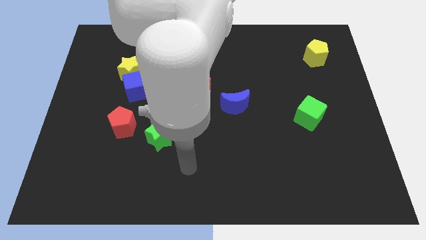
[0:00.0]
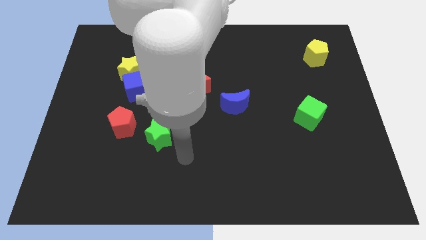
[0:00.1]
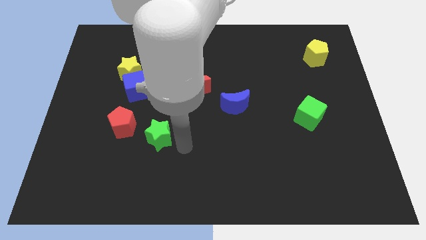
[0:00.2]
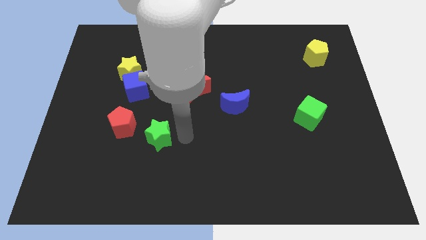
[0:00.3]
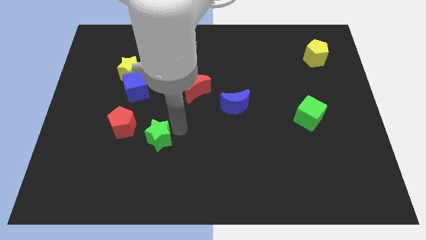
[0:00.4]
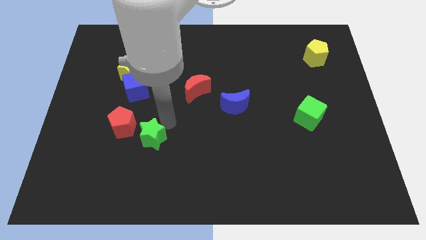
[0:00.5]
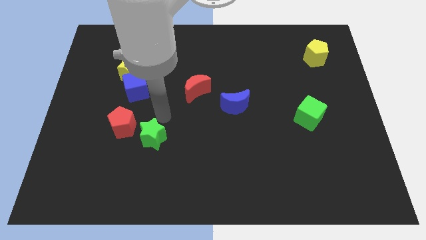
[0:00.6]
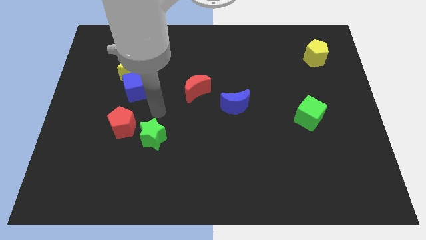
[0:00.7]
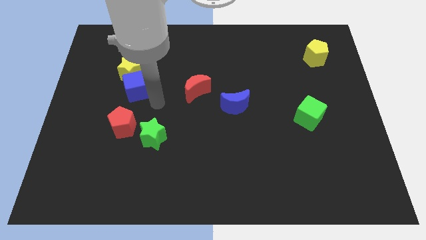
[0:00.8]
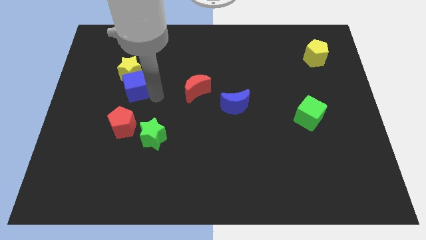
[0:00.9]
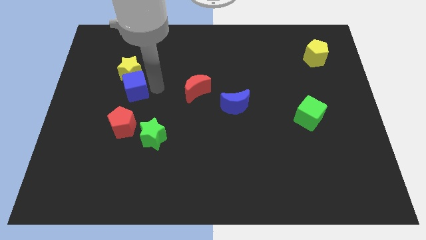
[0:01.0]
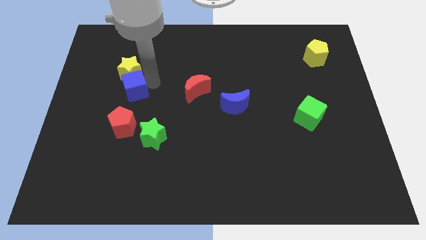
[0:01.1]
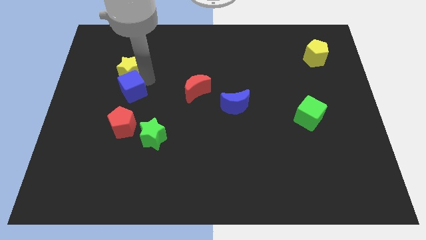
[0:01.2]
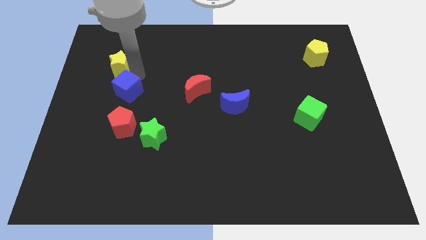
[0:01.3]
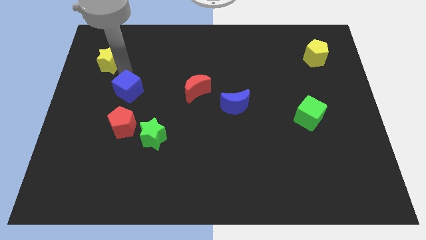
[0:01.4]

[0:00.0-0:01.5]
pull the blue cube apart from the yellow star

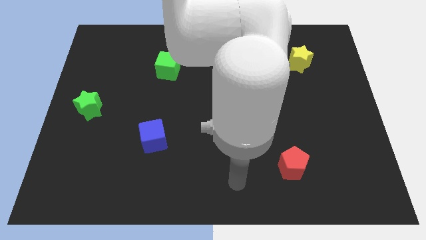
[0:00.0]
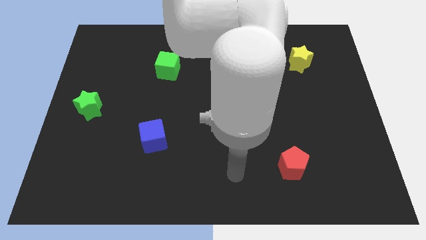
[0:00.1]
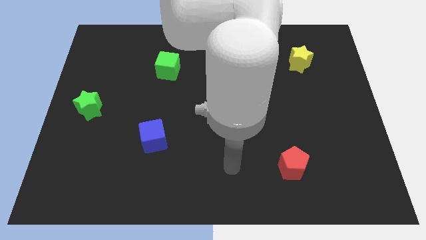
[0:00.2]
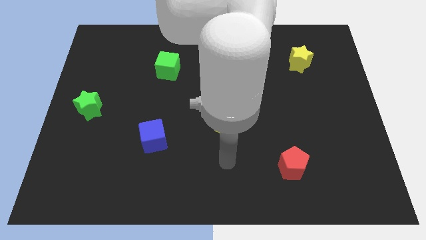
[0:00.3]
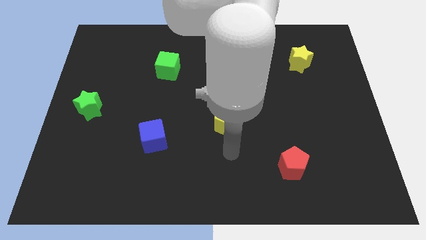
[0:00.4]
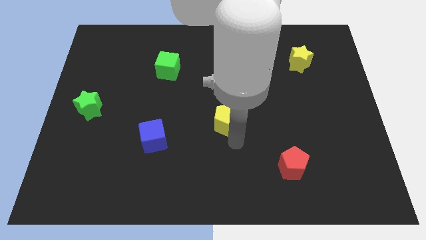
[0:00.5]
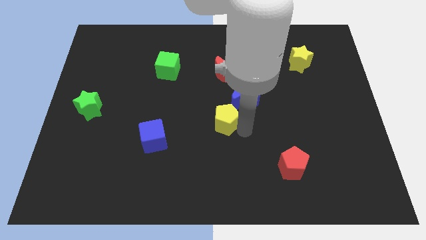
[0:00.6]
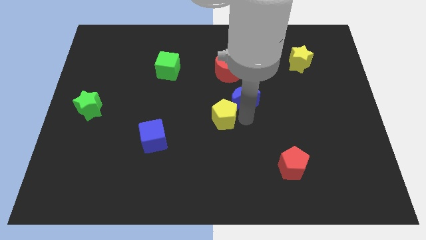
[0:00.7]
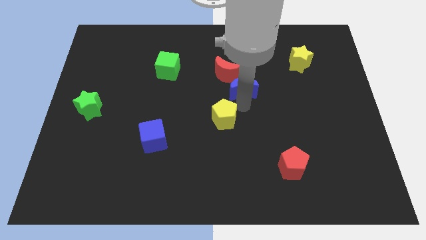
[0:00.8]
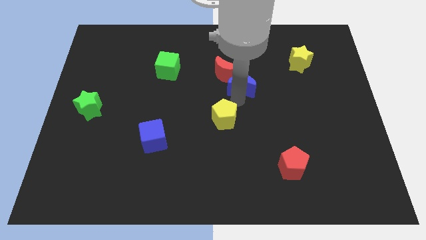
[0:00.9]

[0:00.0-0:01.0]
move the yellow pentagon away from the blue moon

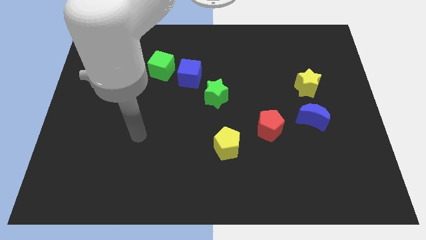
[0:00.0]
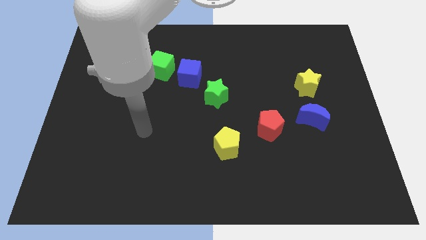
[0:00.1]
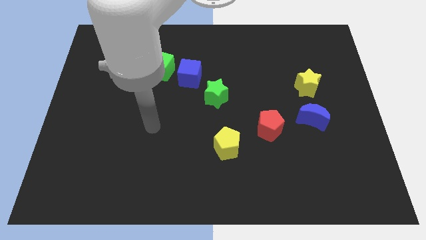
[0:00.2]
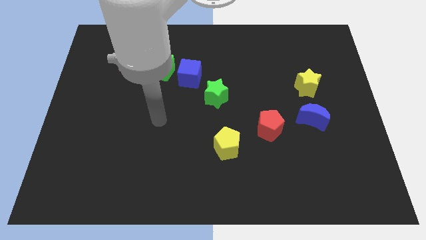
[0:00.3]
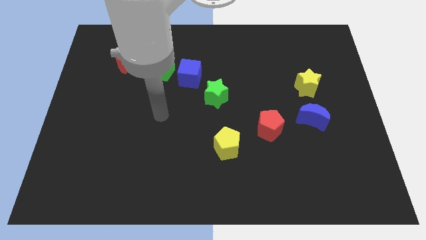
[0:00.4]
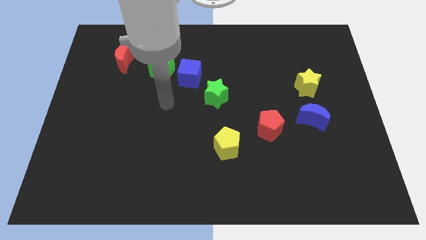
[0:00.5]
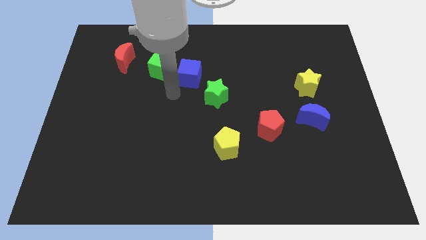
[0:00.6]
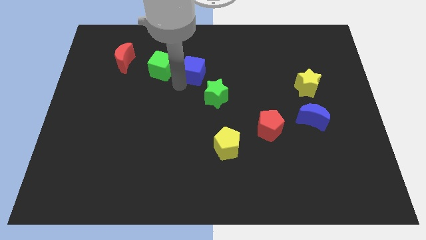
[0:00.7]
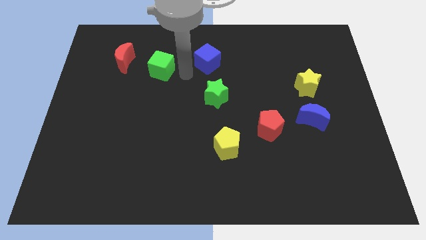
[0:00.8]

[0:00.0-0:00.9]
pull the green cube apart from the blue cube

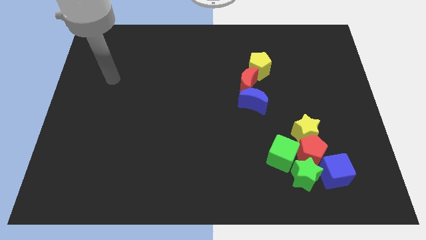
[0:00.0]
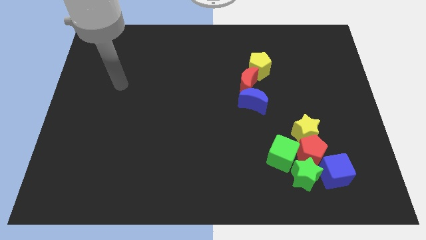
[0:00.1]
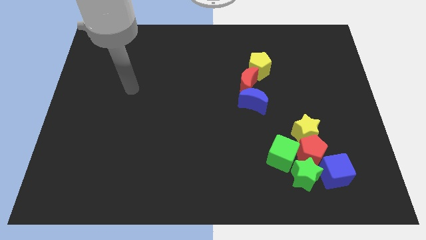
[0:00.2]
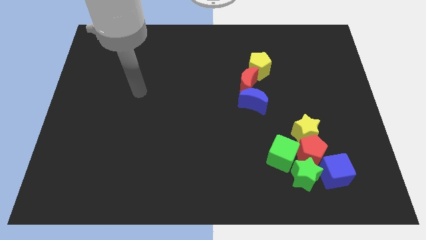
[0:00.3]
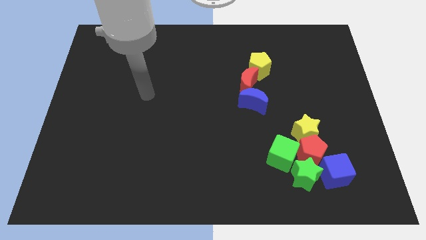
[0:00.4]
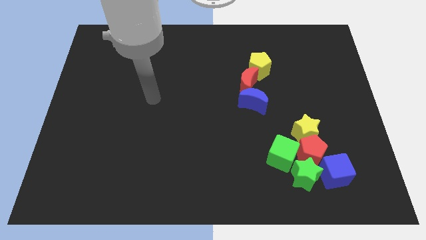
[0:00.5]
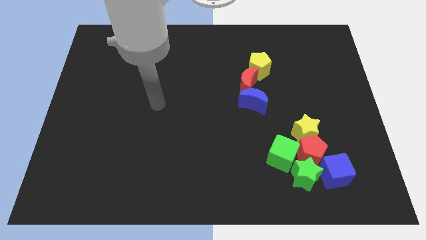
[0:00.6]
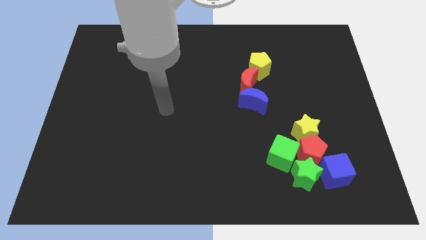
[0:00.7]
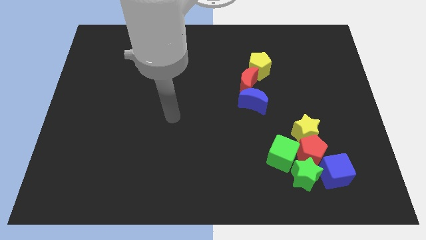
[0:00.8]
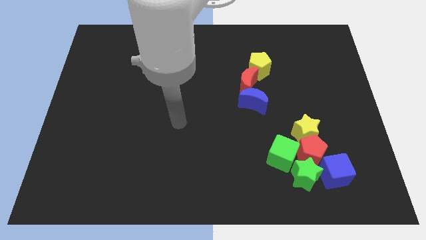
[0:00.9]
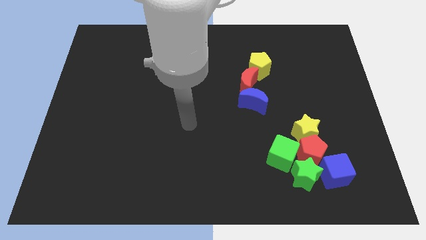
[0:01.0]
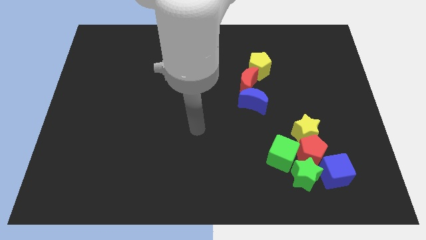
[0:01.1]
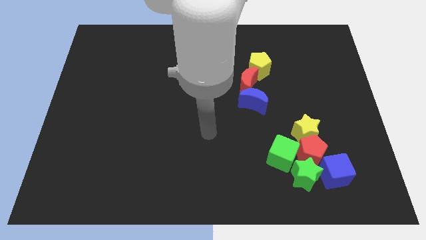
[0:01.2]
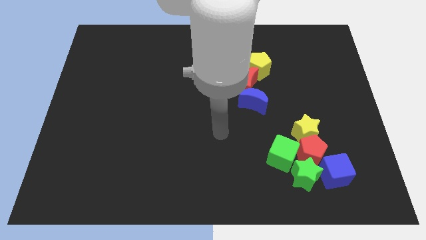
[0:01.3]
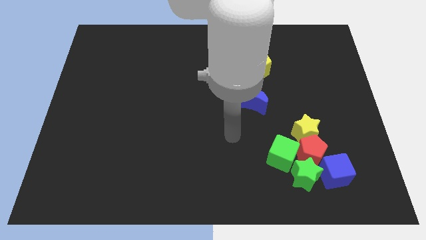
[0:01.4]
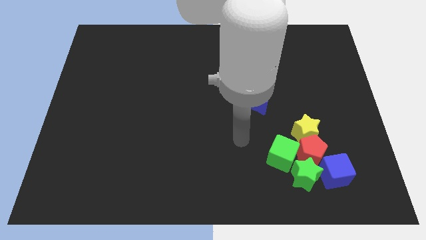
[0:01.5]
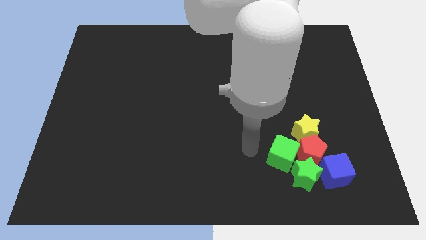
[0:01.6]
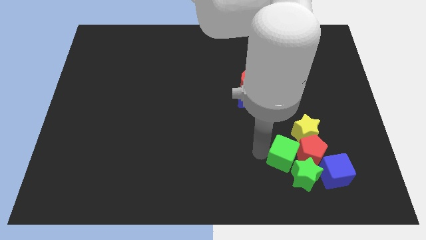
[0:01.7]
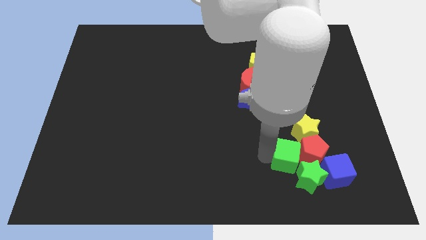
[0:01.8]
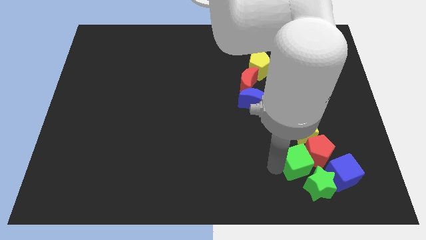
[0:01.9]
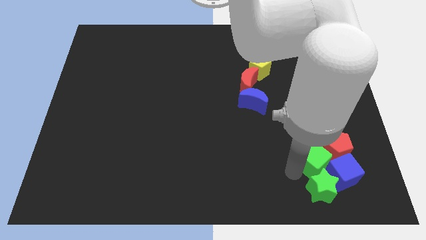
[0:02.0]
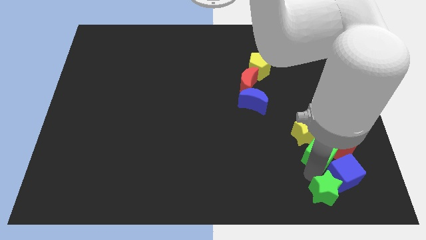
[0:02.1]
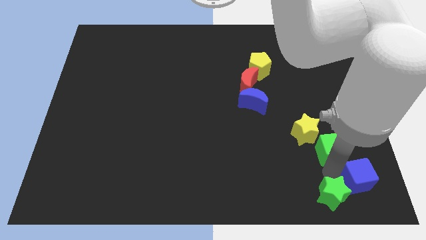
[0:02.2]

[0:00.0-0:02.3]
pull the red pentagon apart from the clump

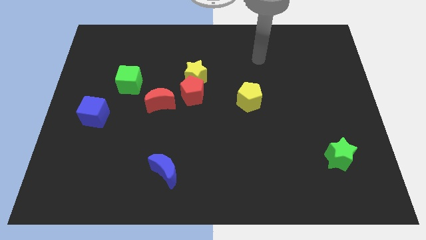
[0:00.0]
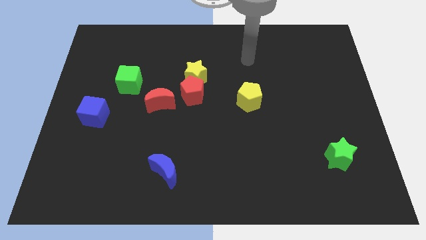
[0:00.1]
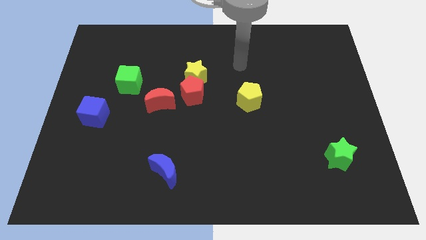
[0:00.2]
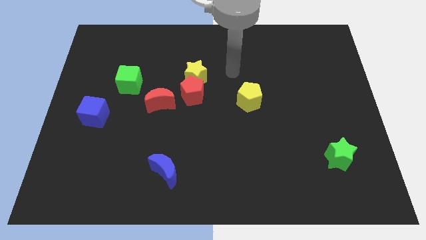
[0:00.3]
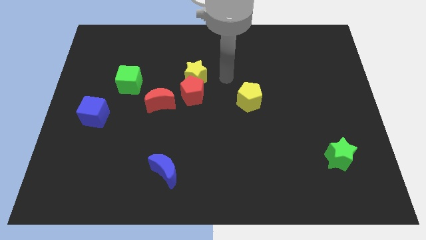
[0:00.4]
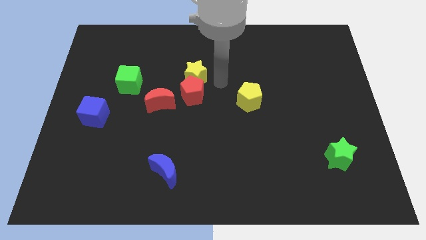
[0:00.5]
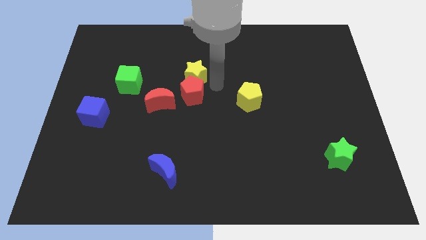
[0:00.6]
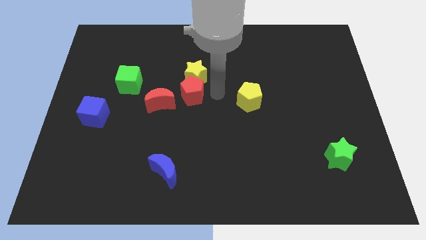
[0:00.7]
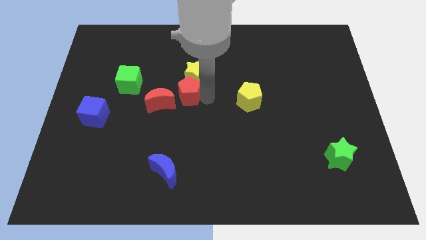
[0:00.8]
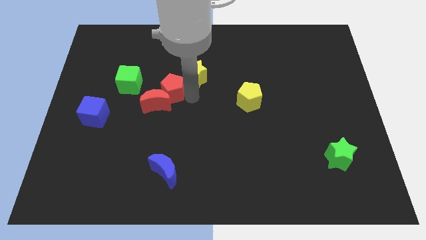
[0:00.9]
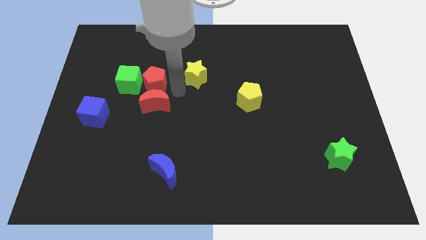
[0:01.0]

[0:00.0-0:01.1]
pull the yellow star apart from the red pentagon

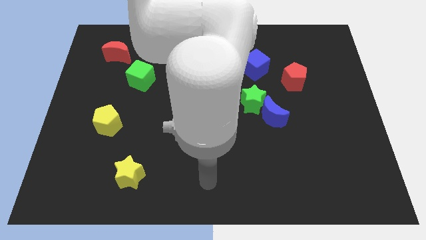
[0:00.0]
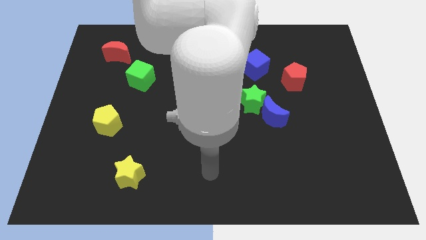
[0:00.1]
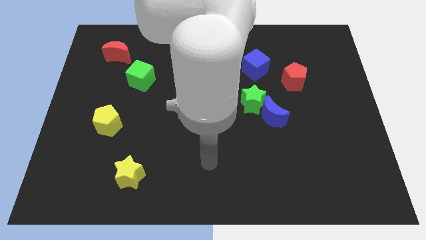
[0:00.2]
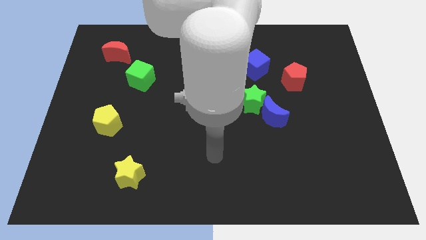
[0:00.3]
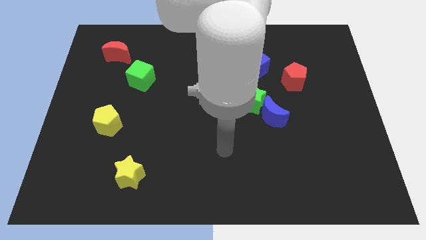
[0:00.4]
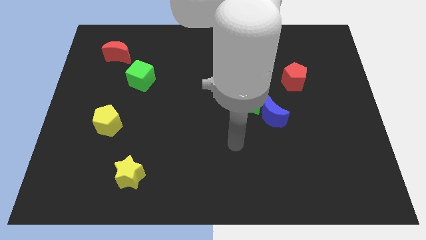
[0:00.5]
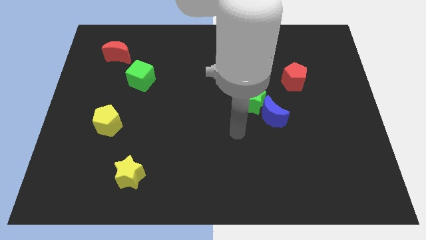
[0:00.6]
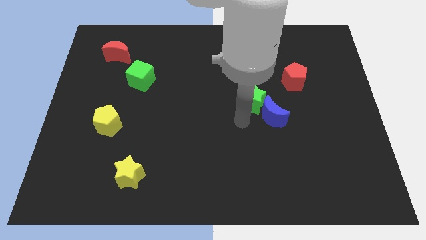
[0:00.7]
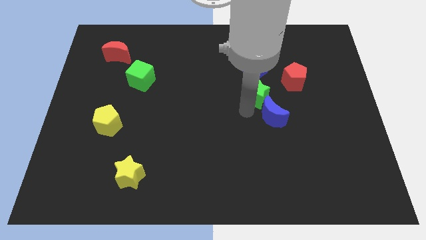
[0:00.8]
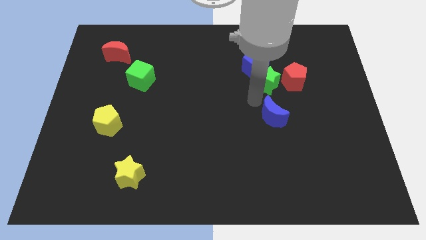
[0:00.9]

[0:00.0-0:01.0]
pull the blue moon apart from the green star

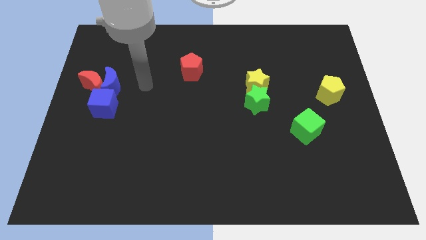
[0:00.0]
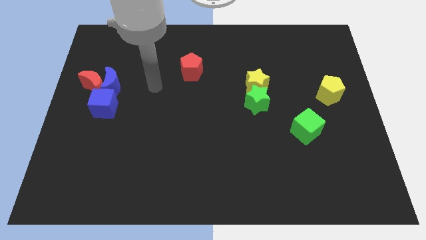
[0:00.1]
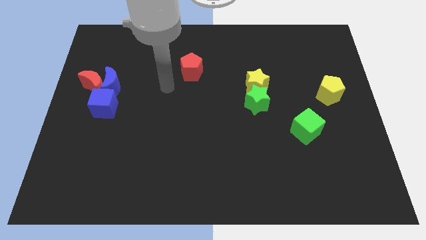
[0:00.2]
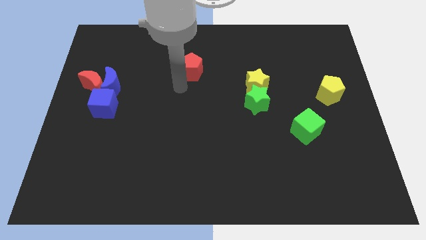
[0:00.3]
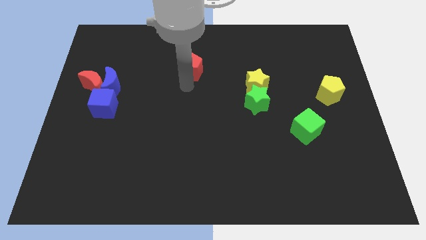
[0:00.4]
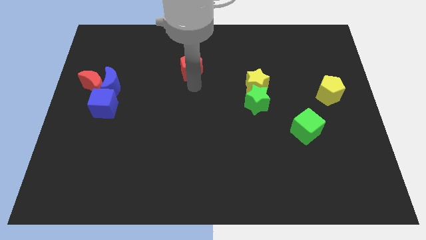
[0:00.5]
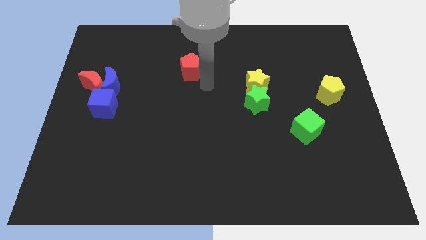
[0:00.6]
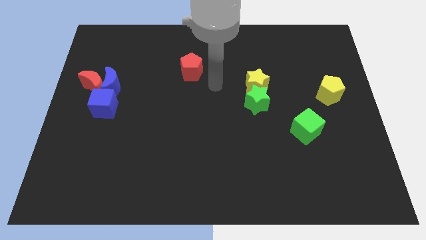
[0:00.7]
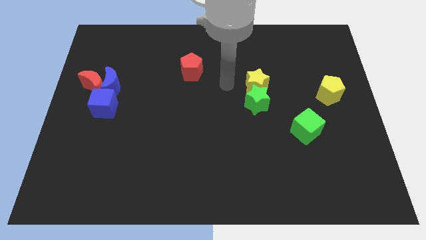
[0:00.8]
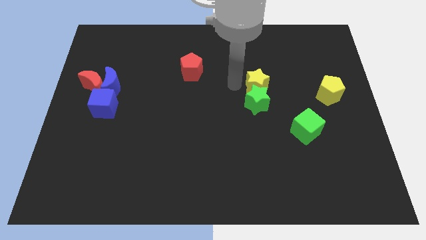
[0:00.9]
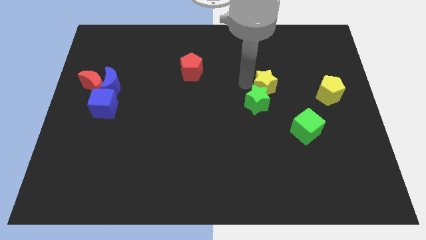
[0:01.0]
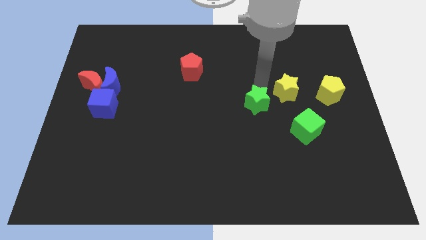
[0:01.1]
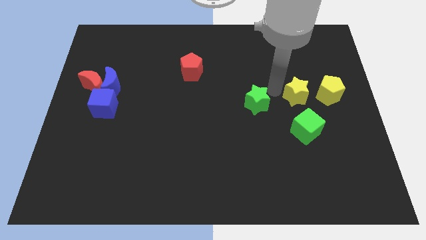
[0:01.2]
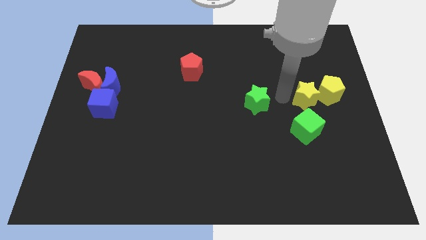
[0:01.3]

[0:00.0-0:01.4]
separate the green star from the yellow star
